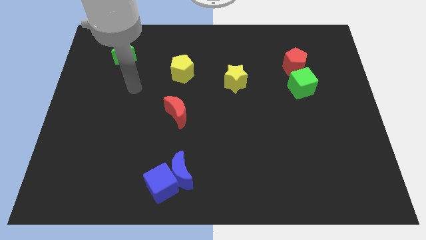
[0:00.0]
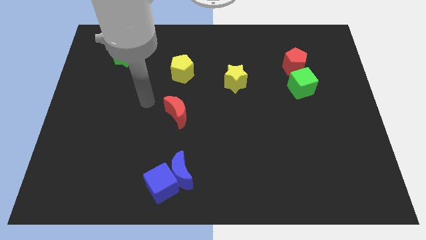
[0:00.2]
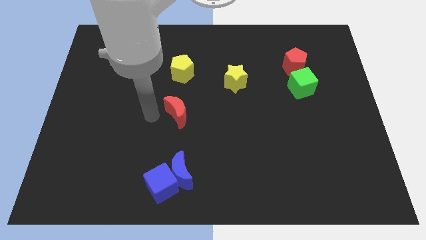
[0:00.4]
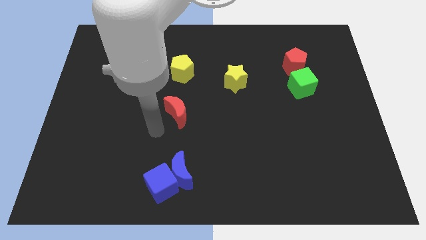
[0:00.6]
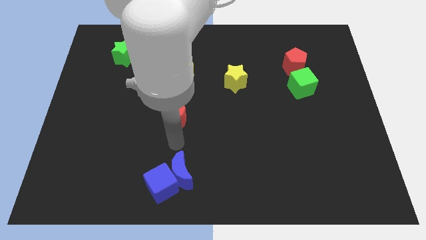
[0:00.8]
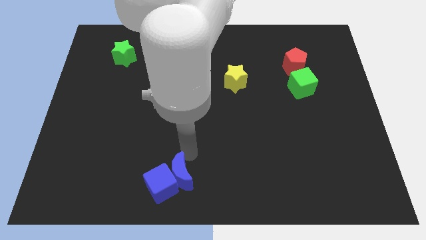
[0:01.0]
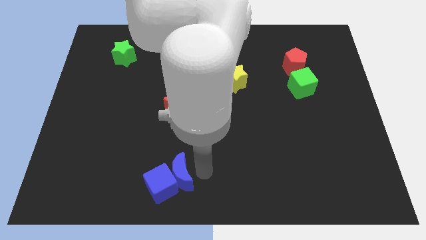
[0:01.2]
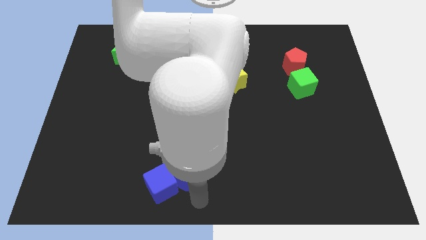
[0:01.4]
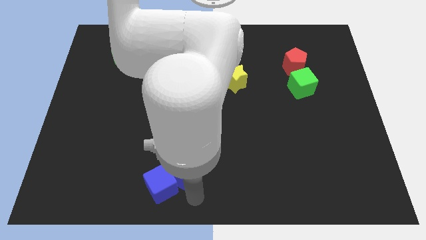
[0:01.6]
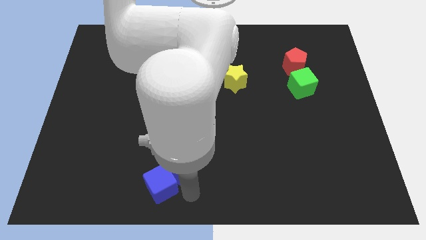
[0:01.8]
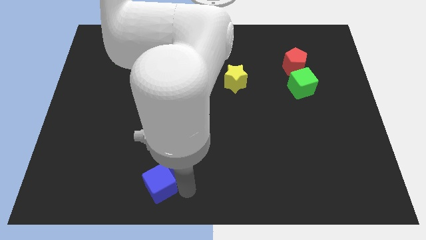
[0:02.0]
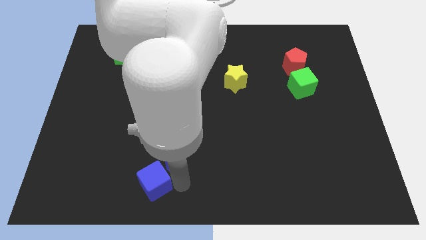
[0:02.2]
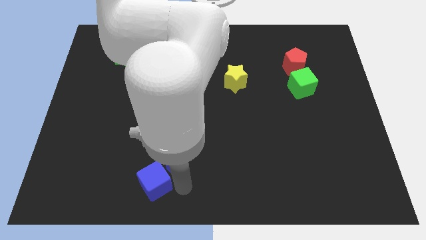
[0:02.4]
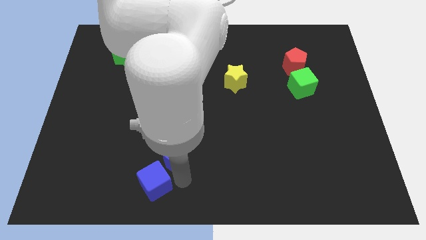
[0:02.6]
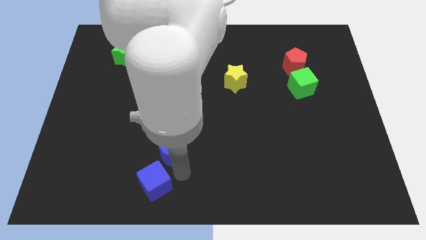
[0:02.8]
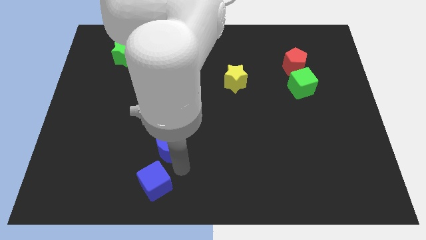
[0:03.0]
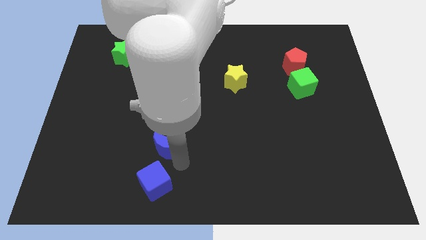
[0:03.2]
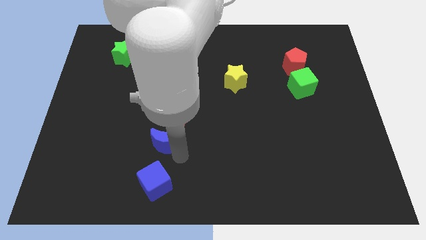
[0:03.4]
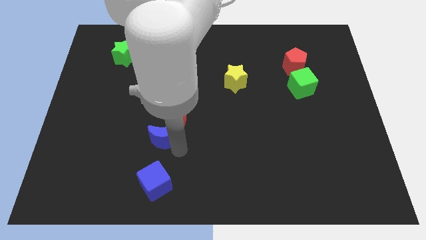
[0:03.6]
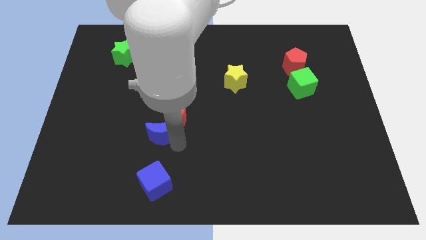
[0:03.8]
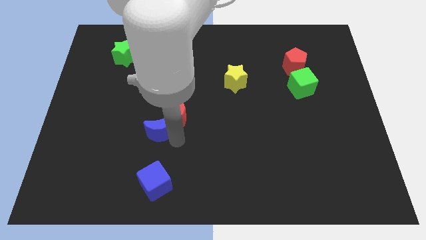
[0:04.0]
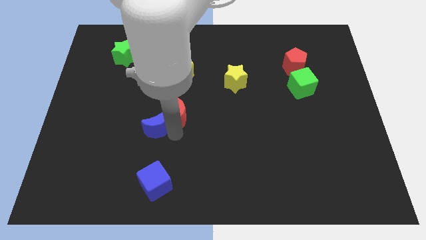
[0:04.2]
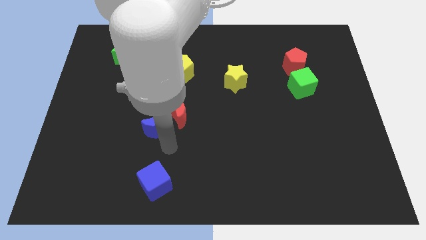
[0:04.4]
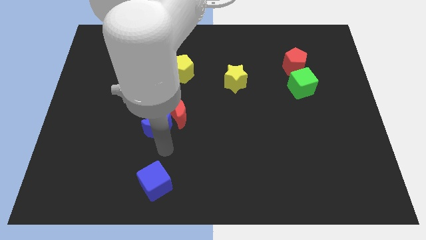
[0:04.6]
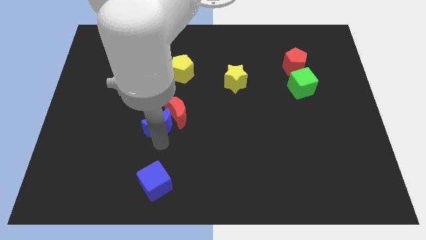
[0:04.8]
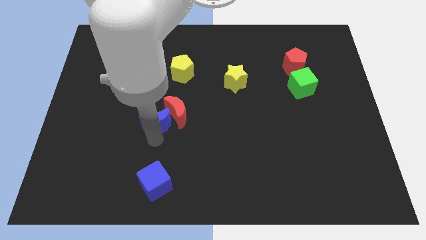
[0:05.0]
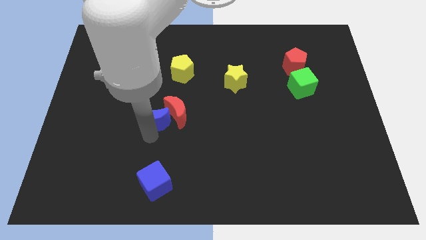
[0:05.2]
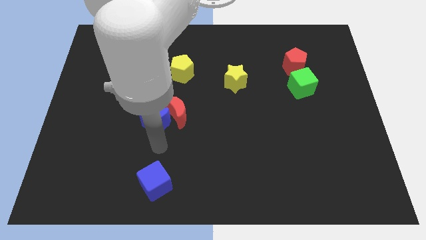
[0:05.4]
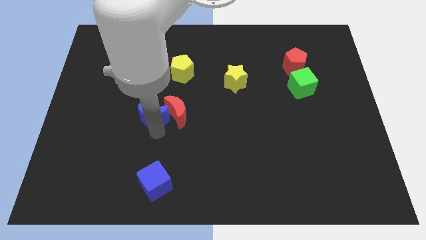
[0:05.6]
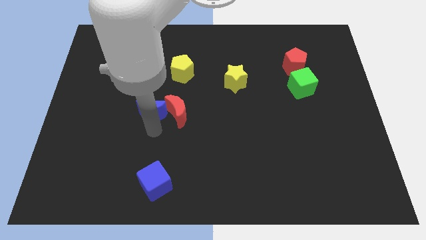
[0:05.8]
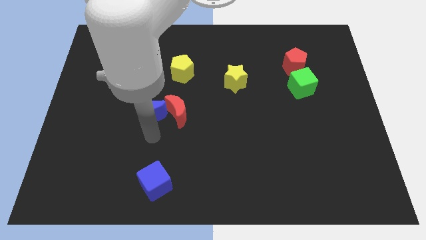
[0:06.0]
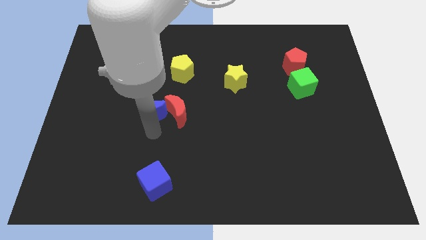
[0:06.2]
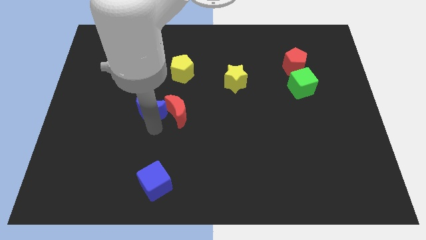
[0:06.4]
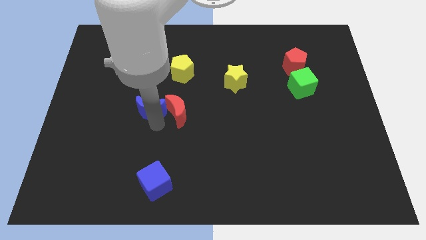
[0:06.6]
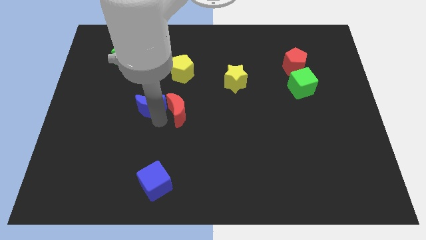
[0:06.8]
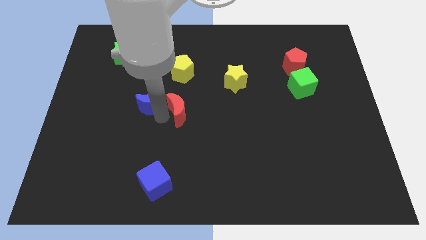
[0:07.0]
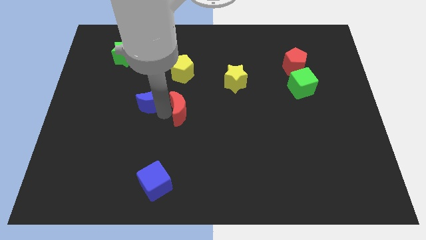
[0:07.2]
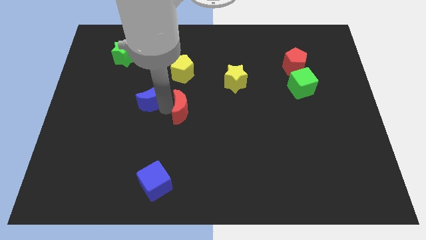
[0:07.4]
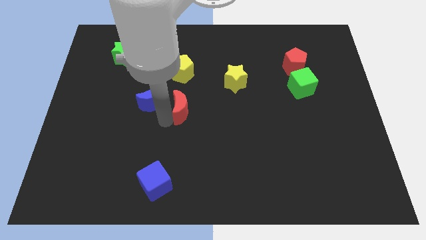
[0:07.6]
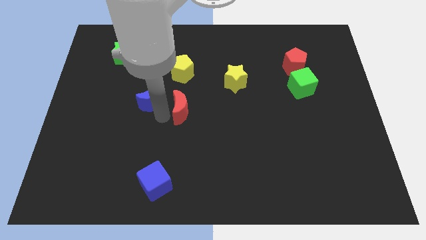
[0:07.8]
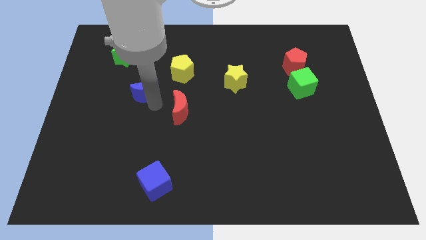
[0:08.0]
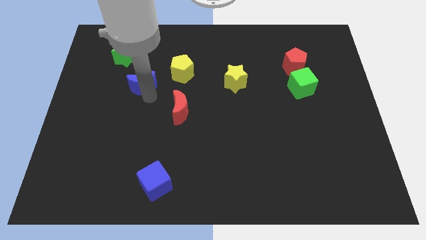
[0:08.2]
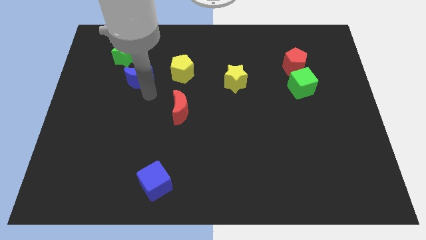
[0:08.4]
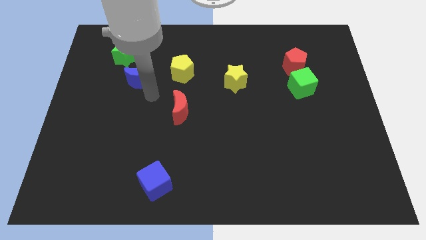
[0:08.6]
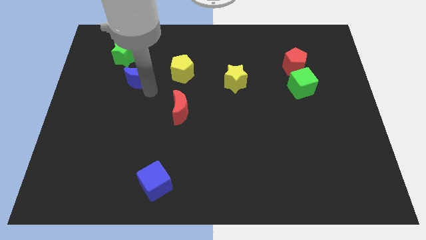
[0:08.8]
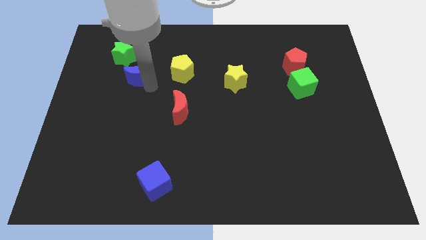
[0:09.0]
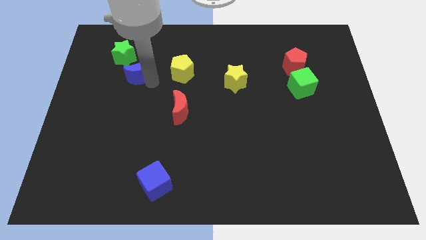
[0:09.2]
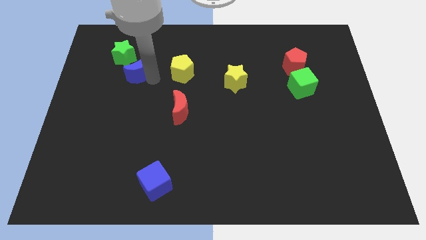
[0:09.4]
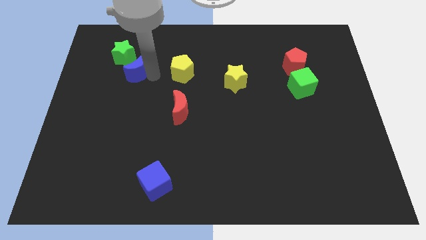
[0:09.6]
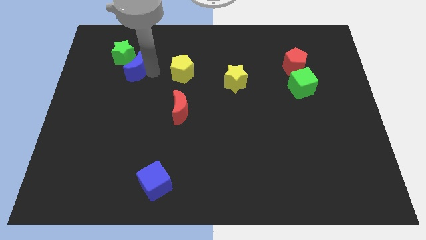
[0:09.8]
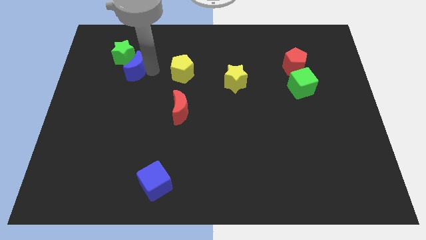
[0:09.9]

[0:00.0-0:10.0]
push the blue moon towards the green star

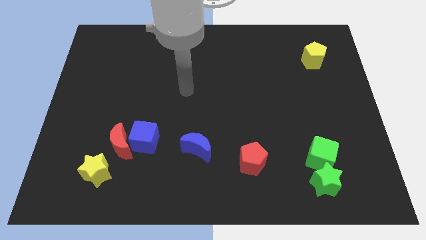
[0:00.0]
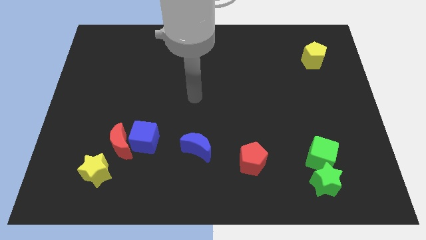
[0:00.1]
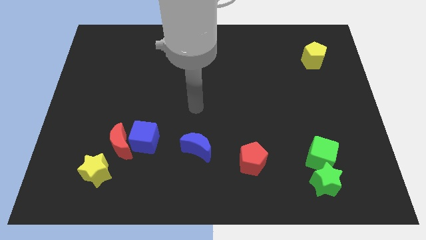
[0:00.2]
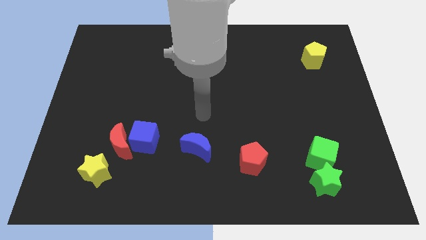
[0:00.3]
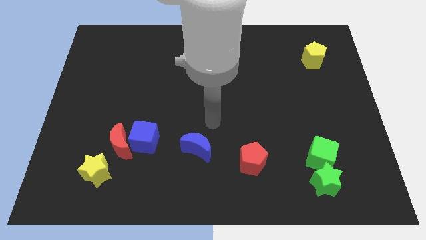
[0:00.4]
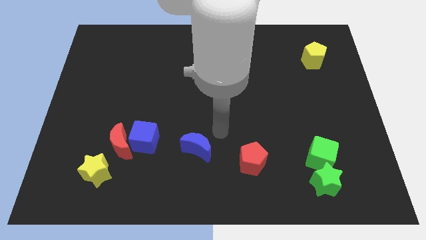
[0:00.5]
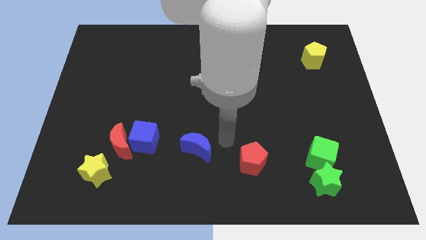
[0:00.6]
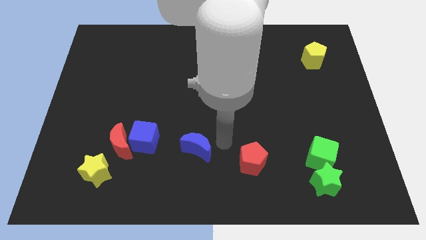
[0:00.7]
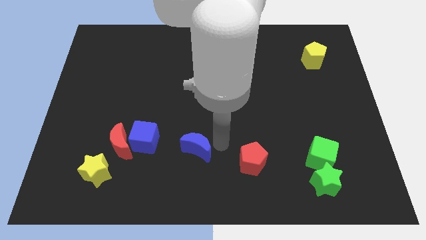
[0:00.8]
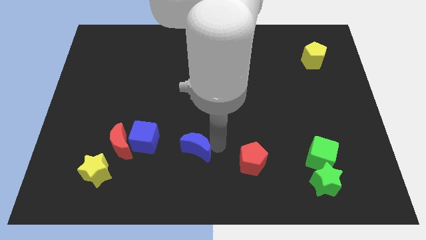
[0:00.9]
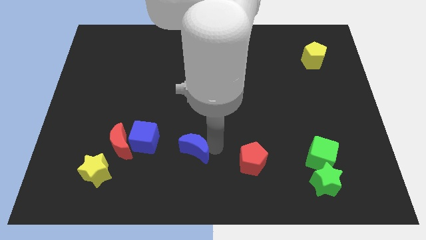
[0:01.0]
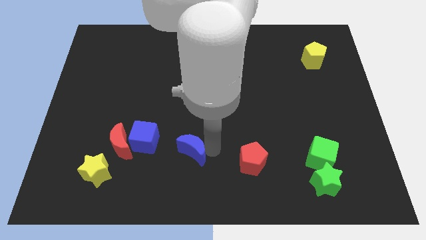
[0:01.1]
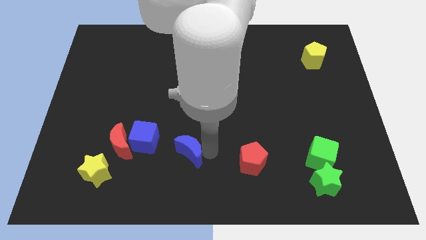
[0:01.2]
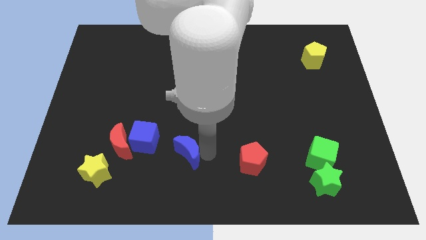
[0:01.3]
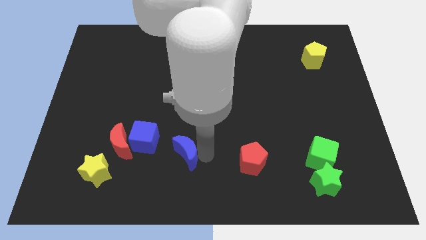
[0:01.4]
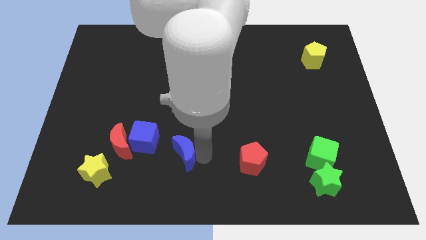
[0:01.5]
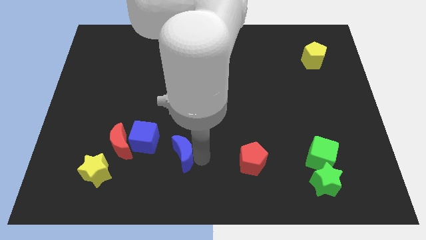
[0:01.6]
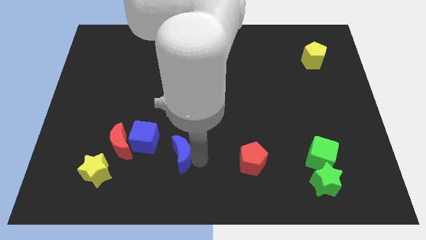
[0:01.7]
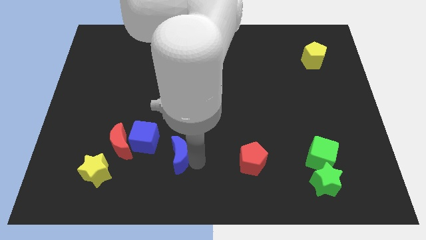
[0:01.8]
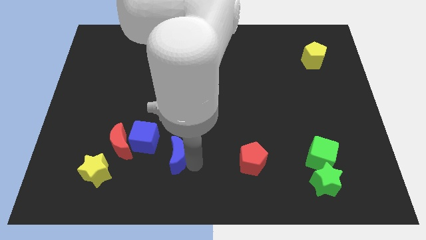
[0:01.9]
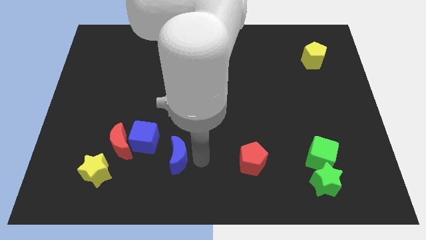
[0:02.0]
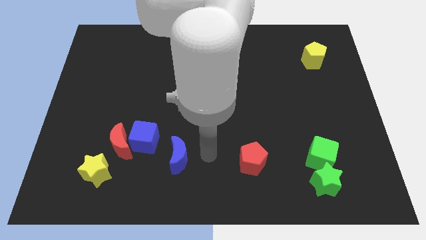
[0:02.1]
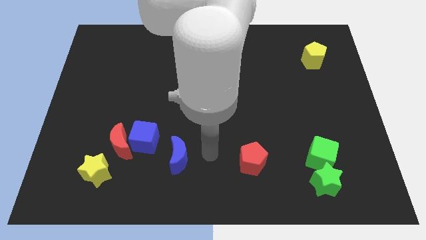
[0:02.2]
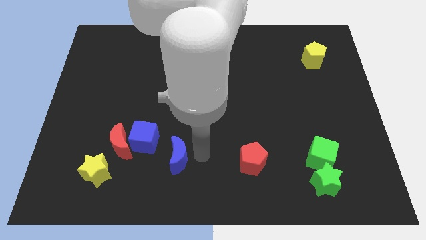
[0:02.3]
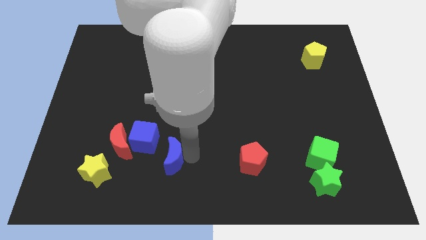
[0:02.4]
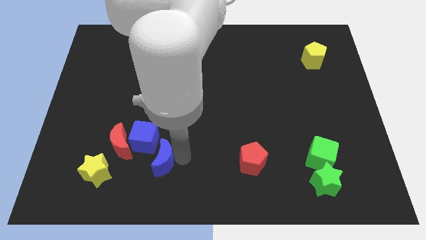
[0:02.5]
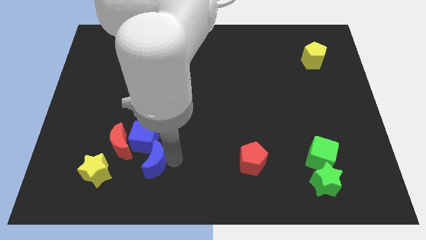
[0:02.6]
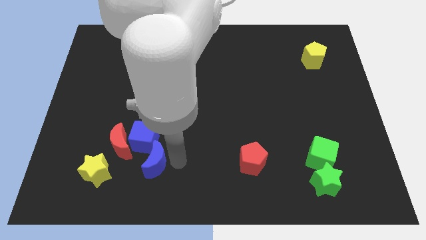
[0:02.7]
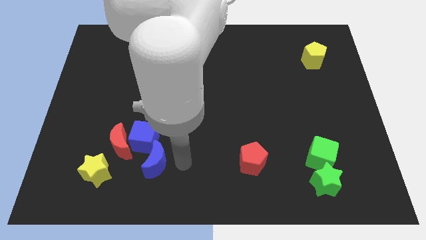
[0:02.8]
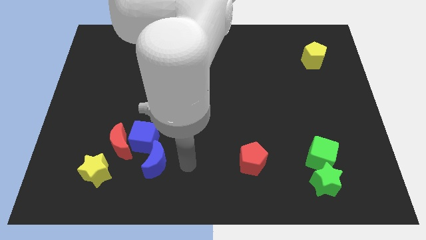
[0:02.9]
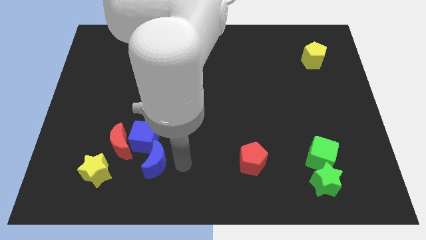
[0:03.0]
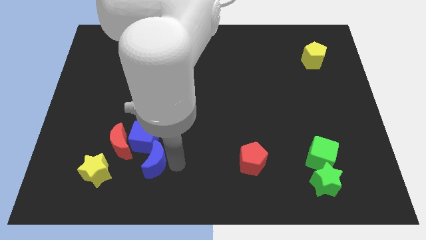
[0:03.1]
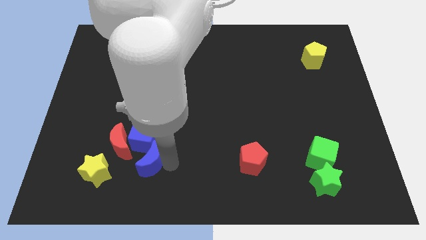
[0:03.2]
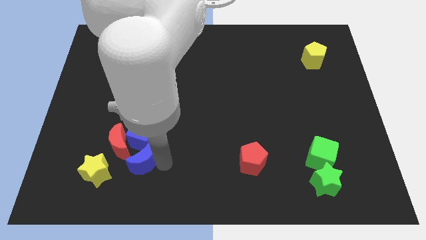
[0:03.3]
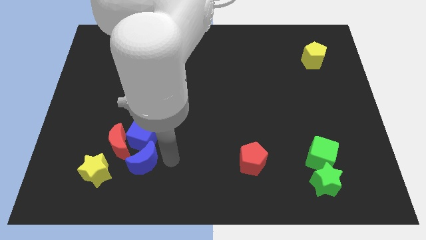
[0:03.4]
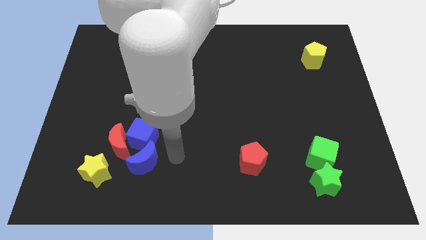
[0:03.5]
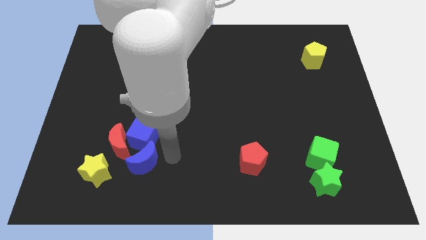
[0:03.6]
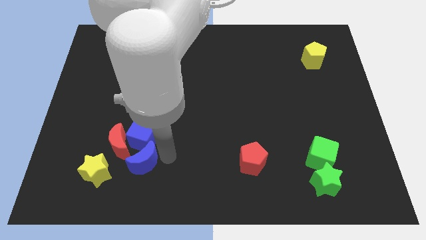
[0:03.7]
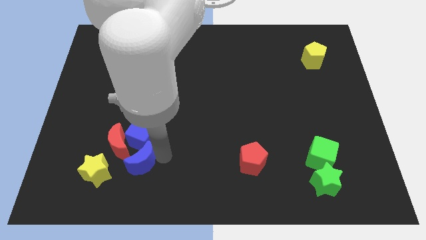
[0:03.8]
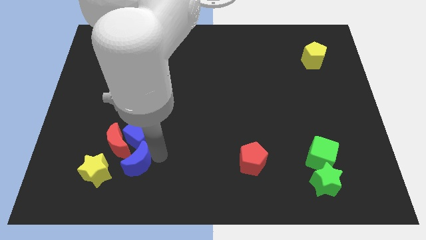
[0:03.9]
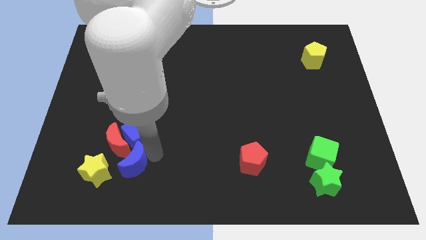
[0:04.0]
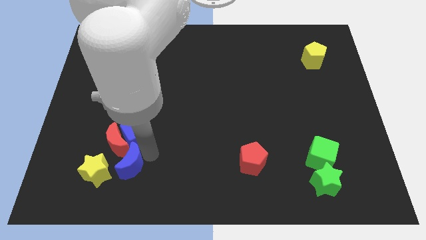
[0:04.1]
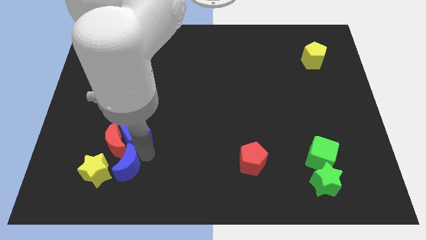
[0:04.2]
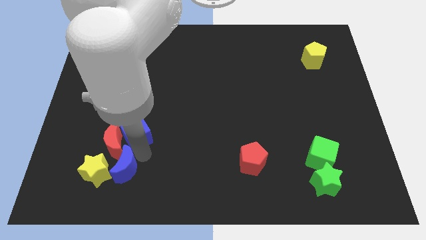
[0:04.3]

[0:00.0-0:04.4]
put the blue moon to the yellow star
